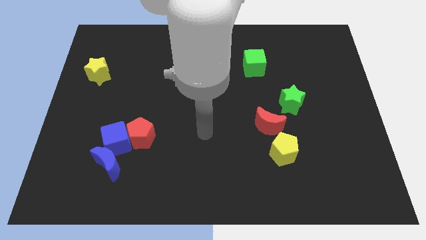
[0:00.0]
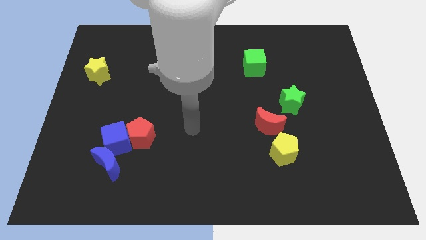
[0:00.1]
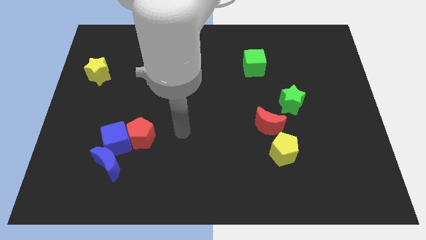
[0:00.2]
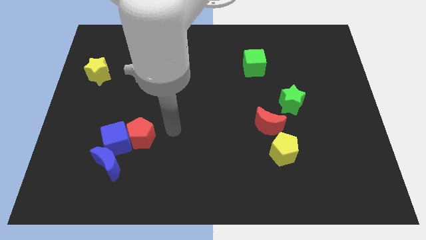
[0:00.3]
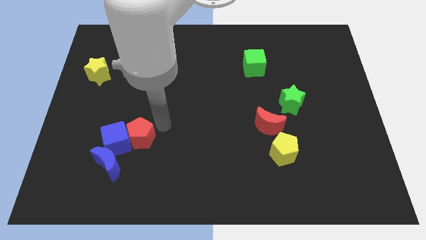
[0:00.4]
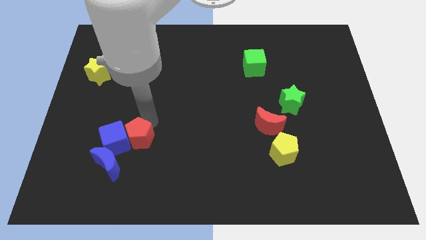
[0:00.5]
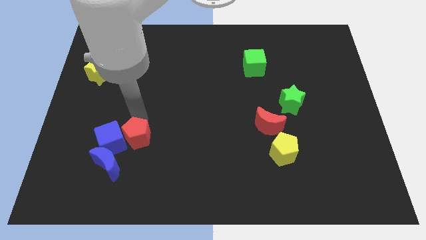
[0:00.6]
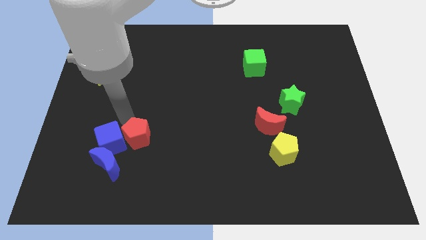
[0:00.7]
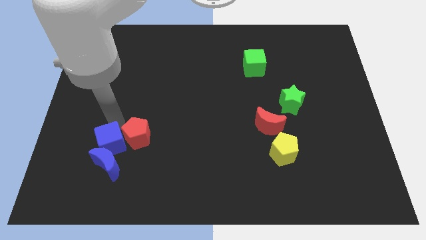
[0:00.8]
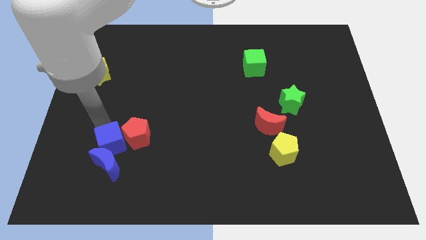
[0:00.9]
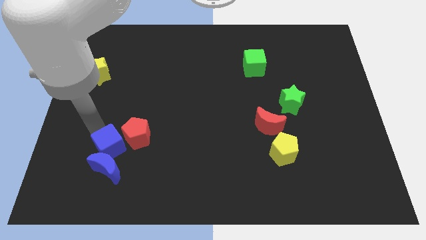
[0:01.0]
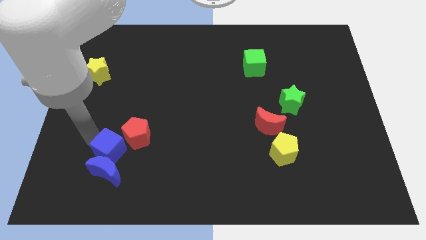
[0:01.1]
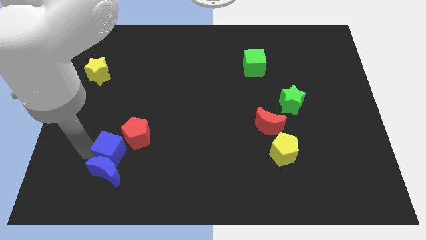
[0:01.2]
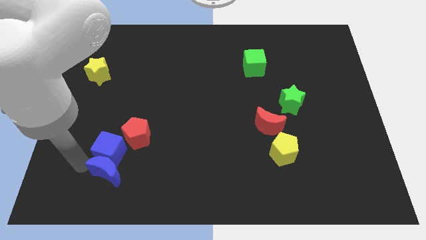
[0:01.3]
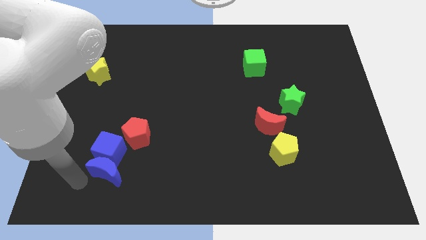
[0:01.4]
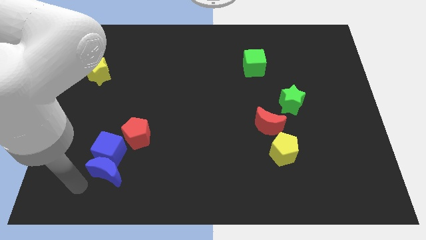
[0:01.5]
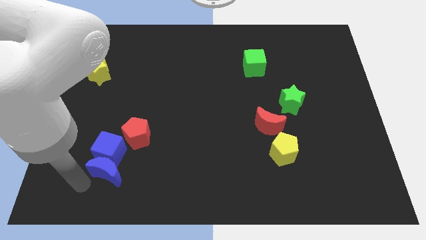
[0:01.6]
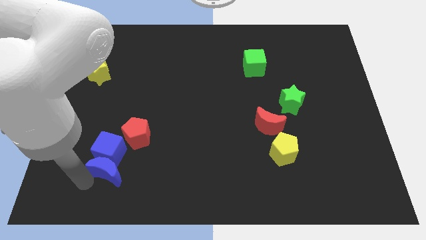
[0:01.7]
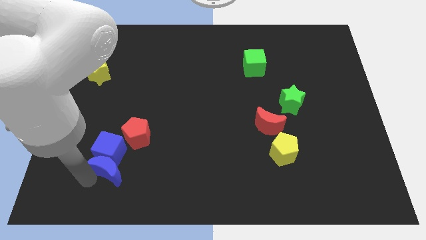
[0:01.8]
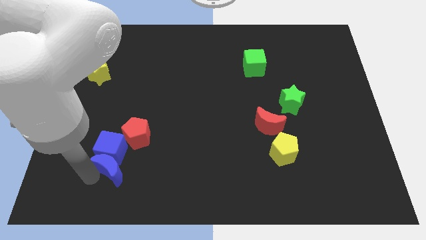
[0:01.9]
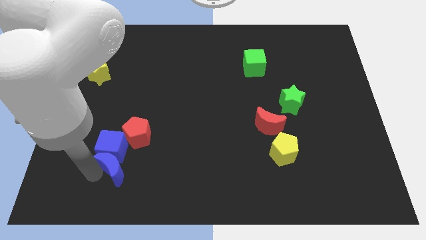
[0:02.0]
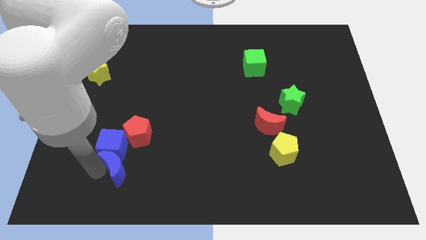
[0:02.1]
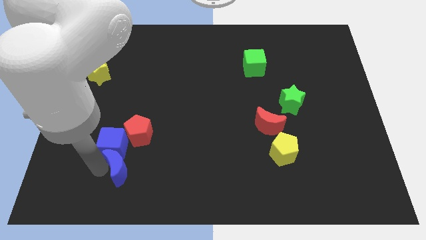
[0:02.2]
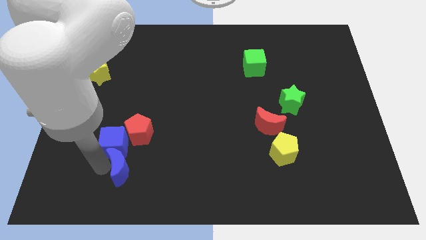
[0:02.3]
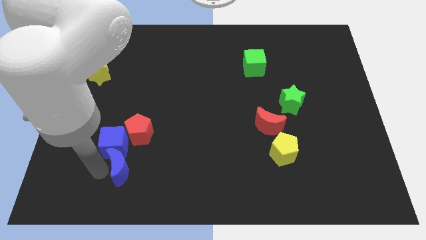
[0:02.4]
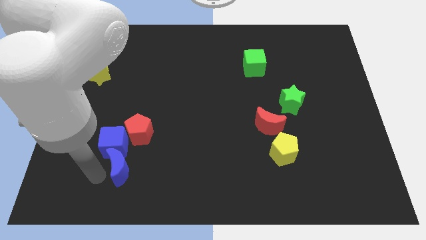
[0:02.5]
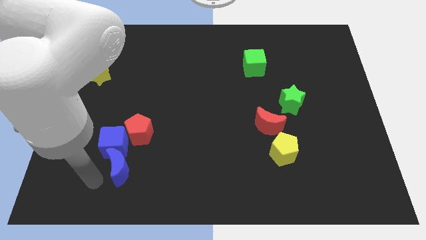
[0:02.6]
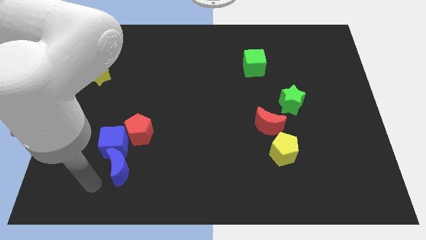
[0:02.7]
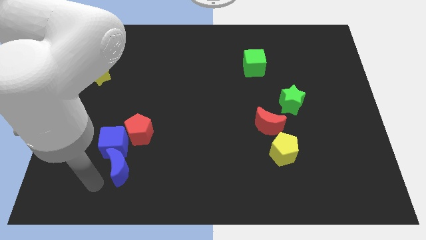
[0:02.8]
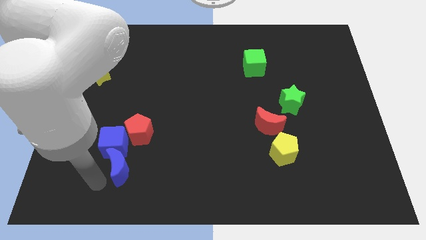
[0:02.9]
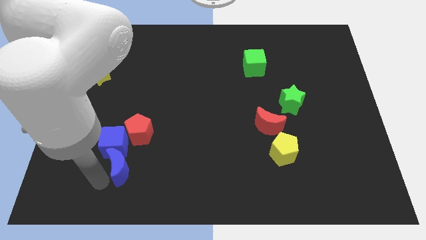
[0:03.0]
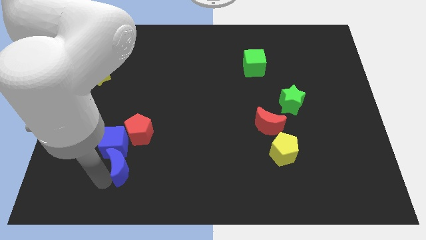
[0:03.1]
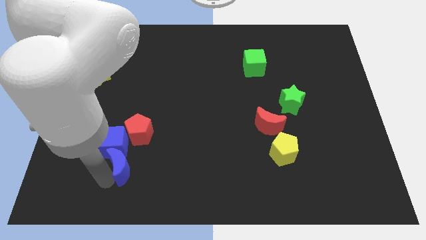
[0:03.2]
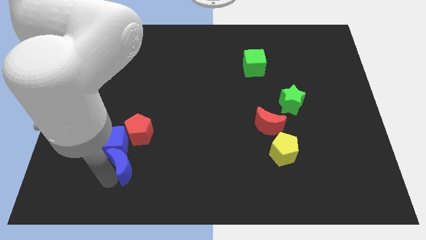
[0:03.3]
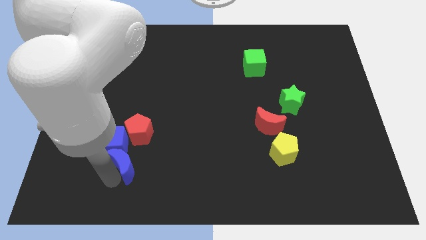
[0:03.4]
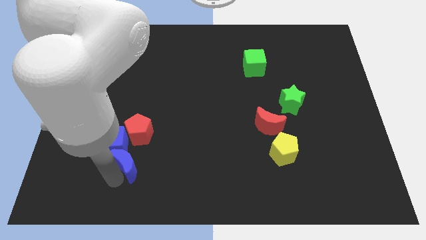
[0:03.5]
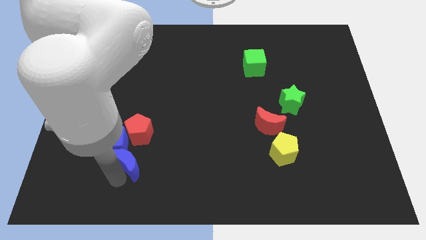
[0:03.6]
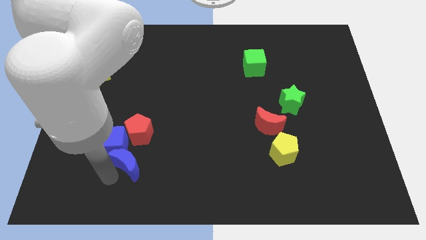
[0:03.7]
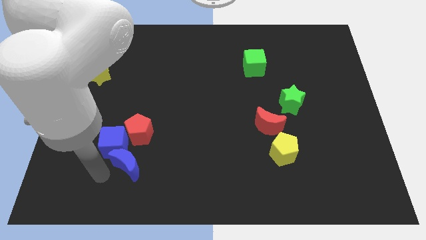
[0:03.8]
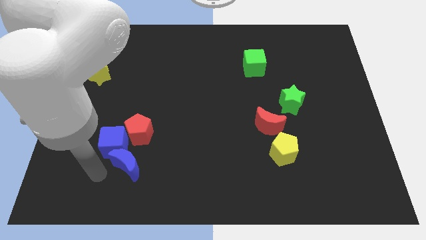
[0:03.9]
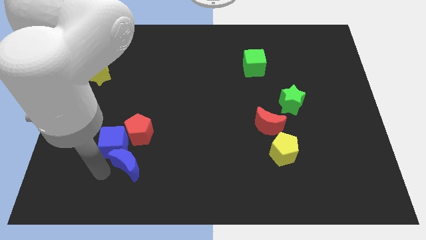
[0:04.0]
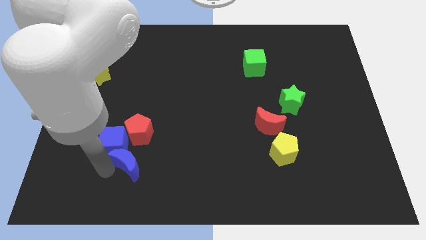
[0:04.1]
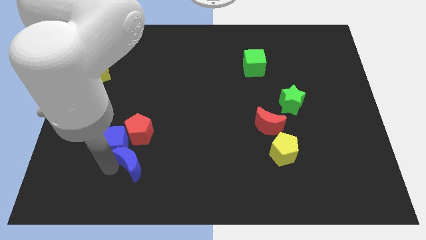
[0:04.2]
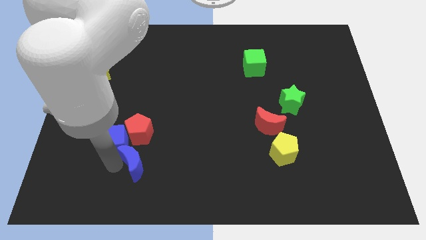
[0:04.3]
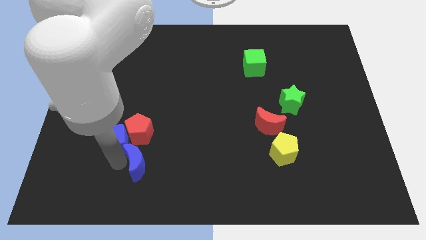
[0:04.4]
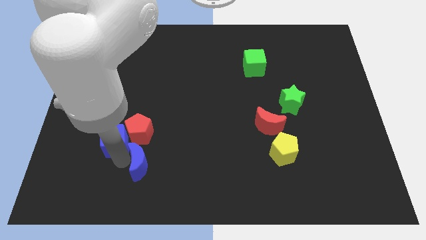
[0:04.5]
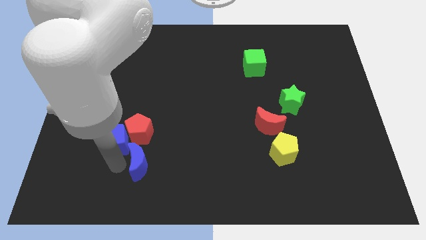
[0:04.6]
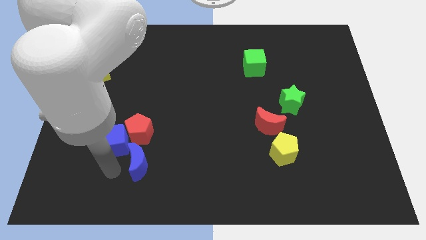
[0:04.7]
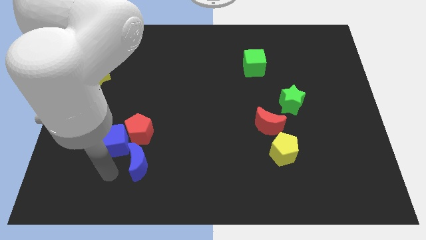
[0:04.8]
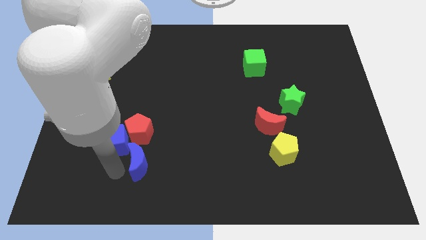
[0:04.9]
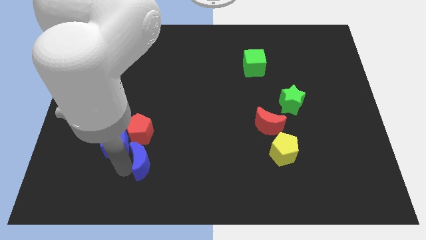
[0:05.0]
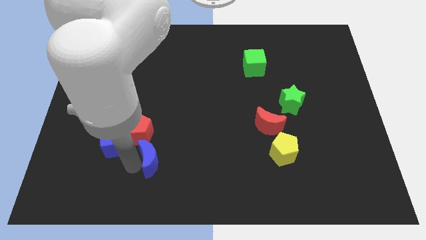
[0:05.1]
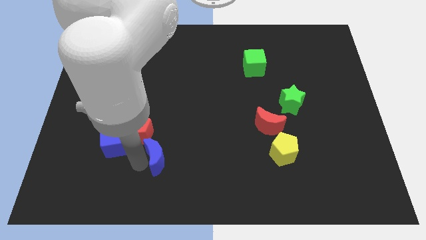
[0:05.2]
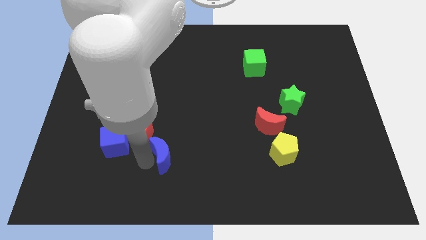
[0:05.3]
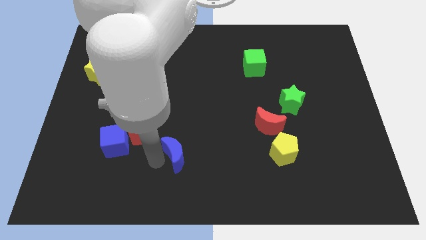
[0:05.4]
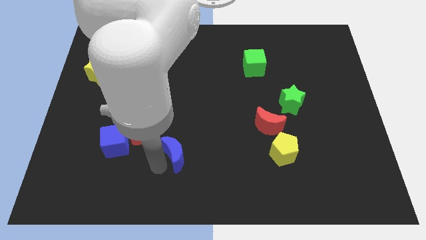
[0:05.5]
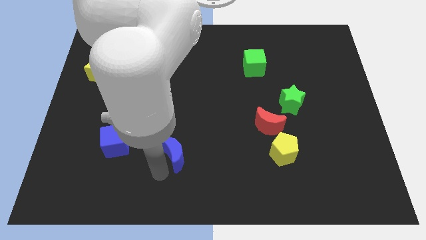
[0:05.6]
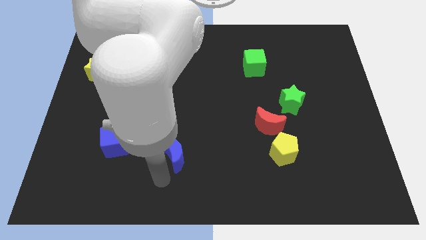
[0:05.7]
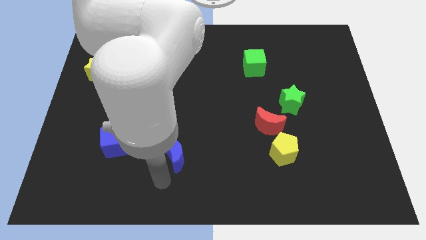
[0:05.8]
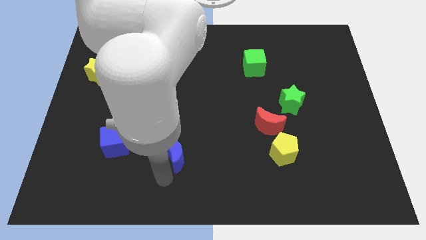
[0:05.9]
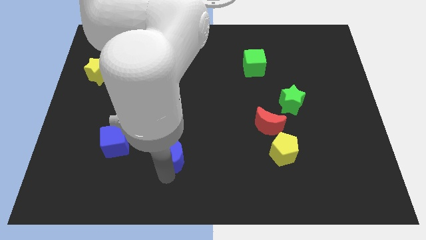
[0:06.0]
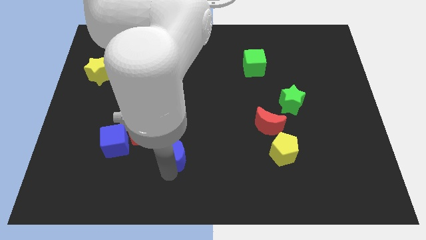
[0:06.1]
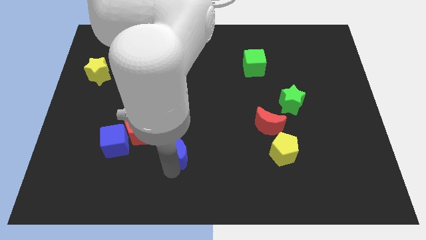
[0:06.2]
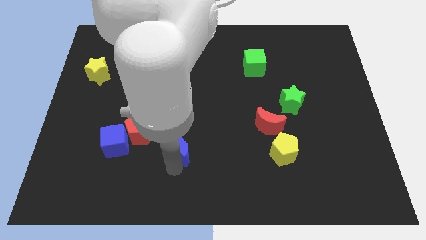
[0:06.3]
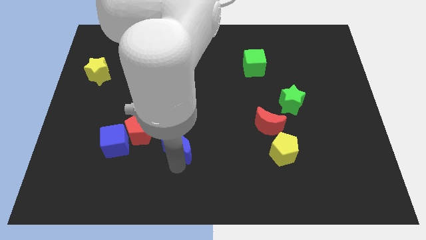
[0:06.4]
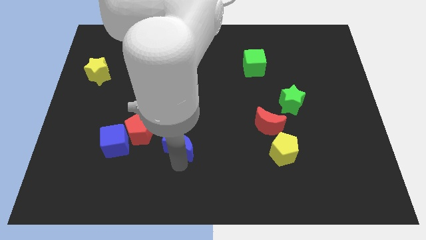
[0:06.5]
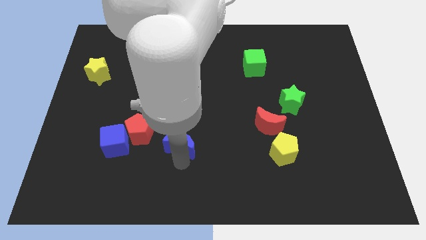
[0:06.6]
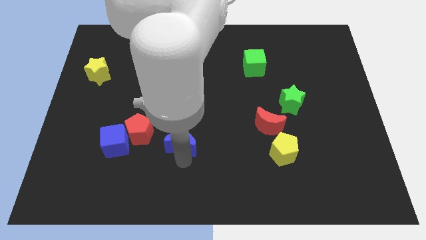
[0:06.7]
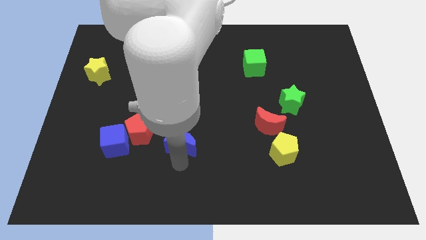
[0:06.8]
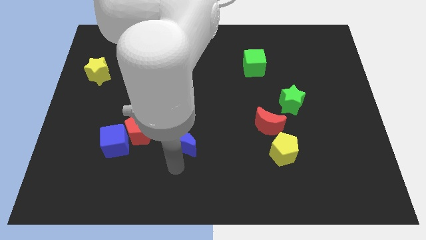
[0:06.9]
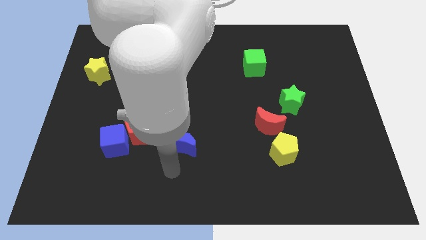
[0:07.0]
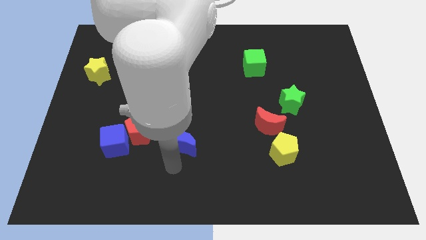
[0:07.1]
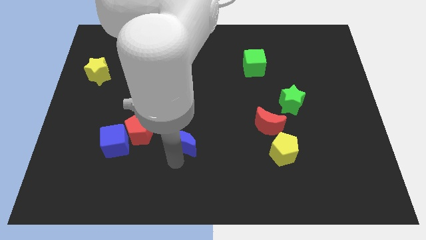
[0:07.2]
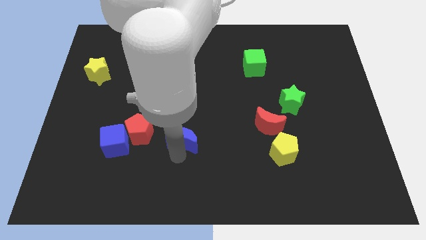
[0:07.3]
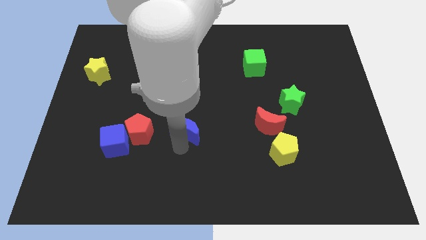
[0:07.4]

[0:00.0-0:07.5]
slide the blue moon to the middle of the board
